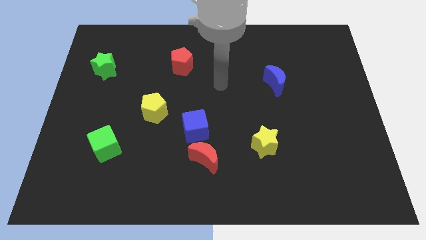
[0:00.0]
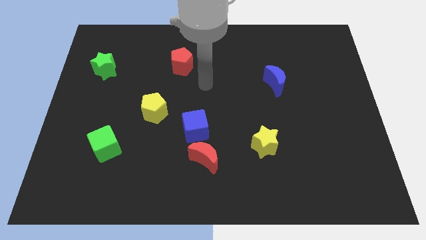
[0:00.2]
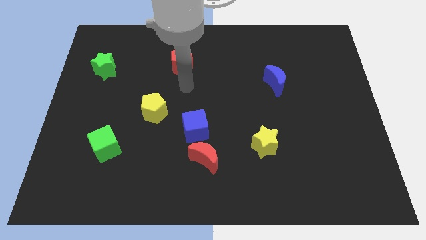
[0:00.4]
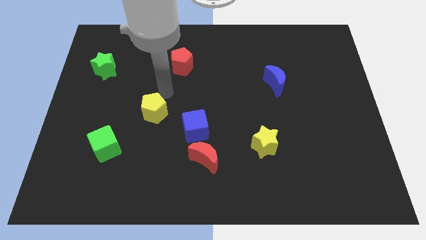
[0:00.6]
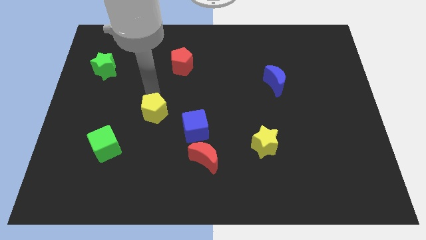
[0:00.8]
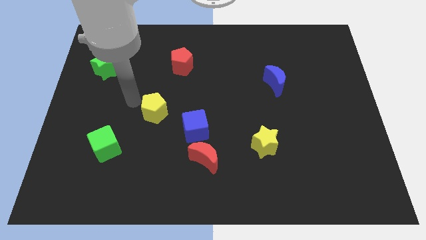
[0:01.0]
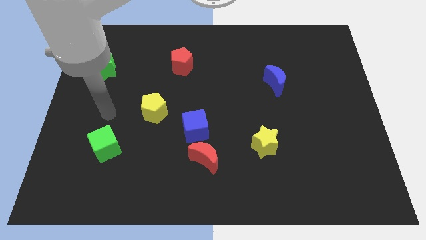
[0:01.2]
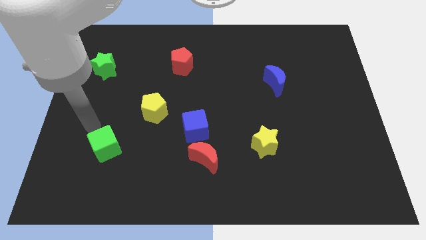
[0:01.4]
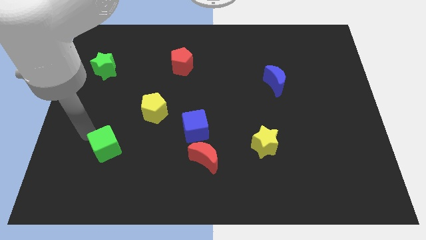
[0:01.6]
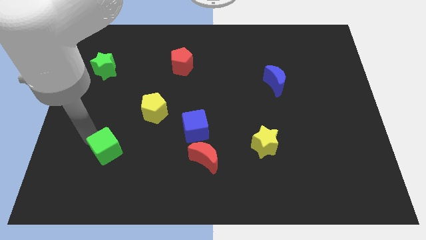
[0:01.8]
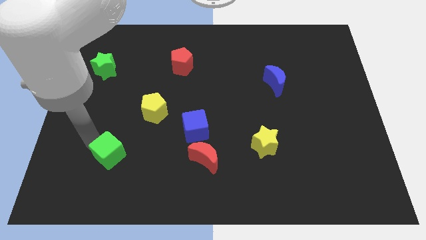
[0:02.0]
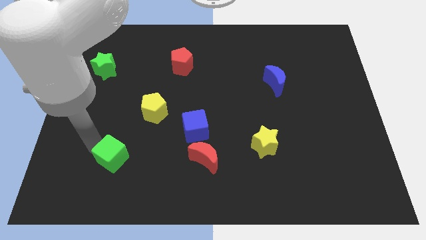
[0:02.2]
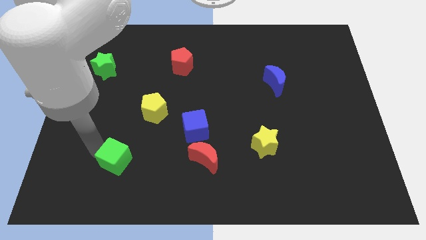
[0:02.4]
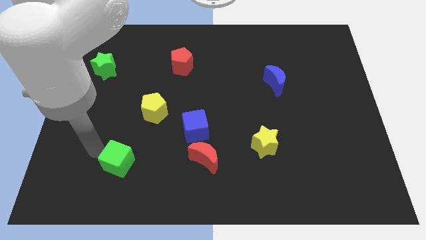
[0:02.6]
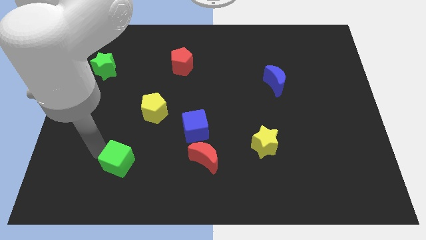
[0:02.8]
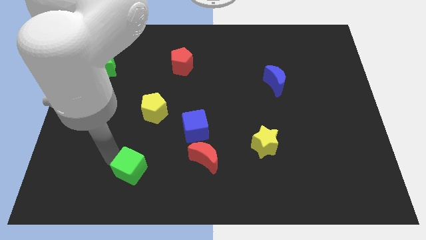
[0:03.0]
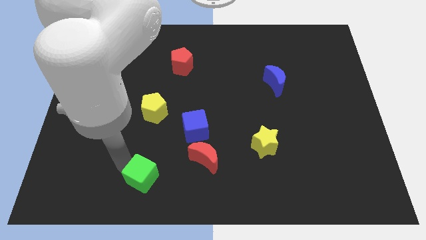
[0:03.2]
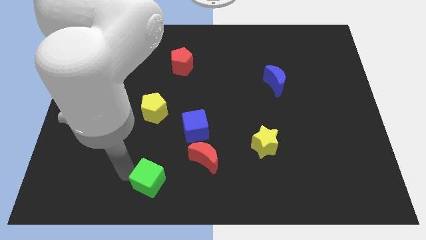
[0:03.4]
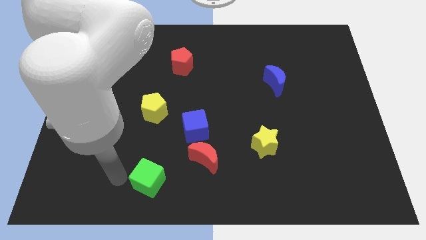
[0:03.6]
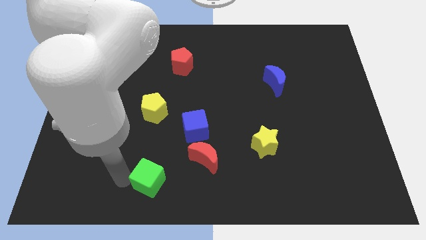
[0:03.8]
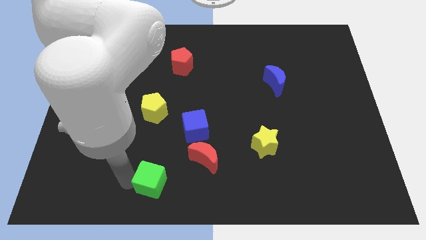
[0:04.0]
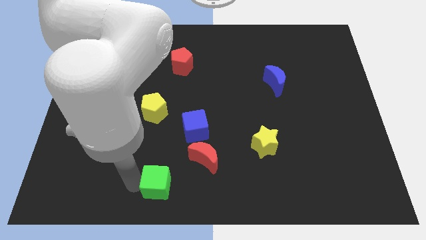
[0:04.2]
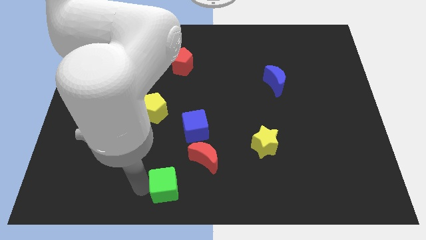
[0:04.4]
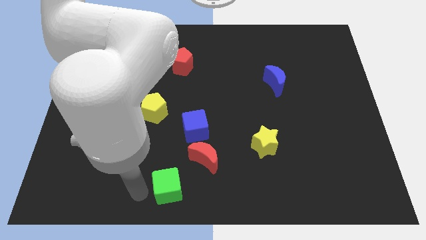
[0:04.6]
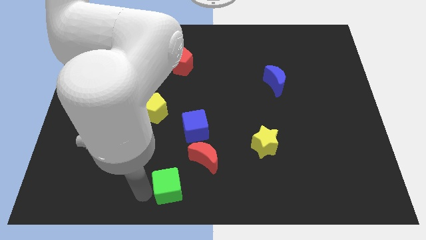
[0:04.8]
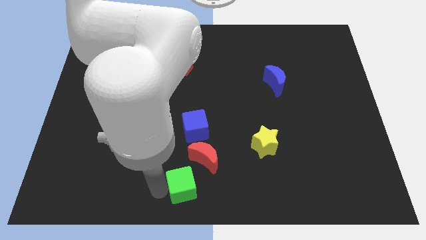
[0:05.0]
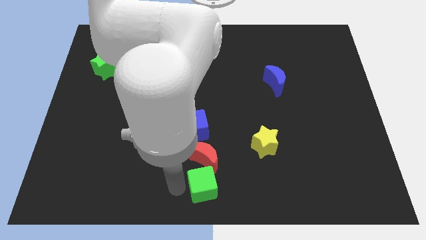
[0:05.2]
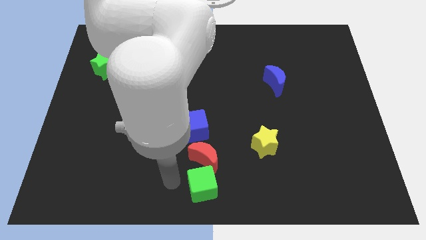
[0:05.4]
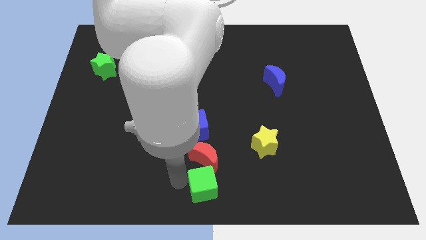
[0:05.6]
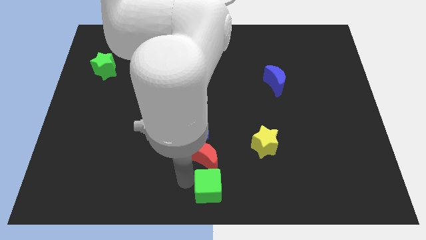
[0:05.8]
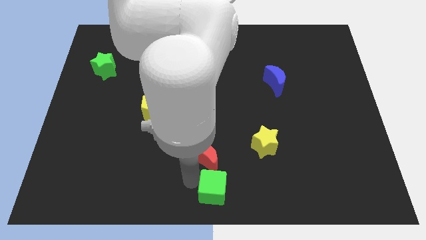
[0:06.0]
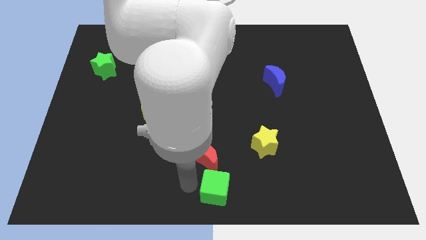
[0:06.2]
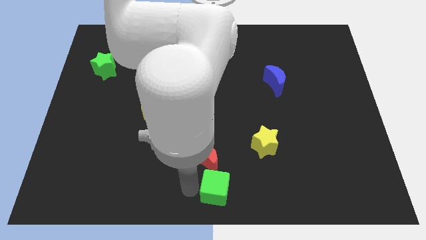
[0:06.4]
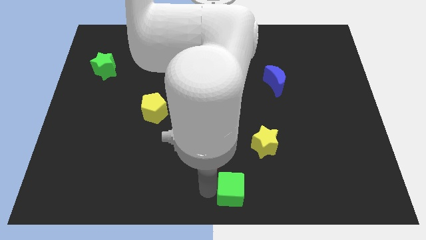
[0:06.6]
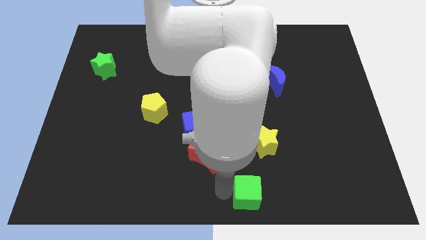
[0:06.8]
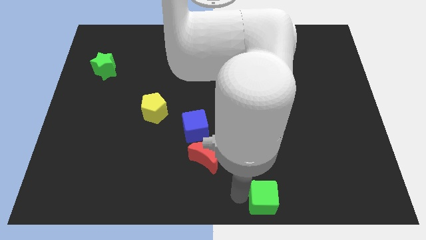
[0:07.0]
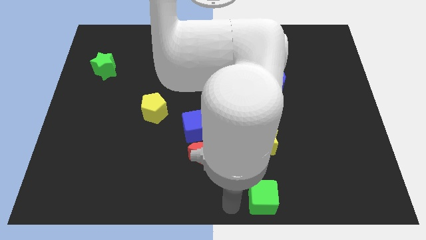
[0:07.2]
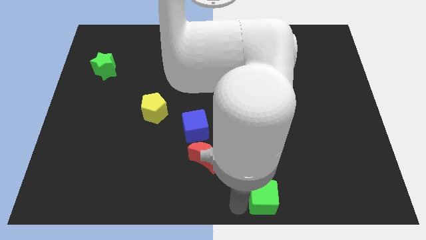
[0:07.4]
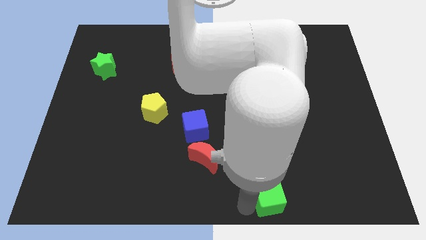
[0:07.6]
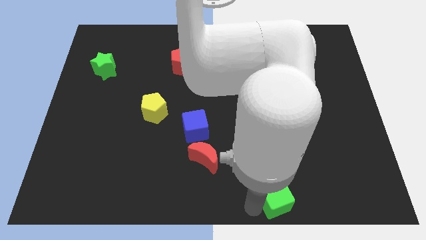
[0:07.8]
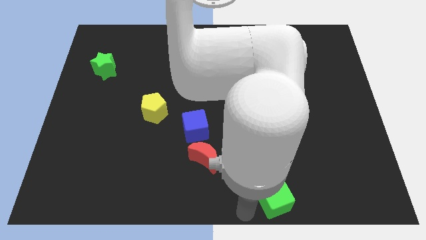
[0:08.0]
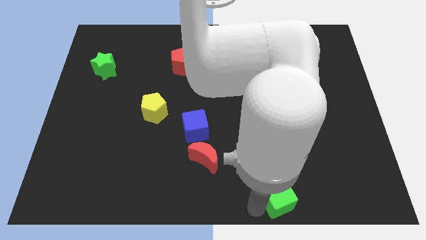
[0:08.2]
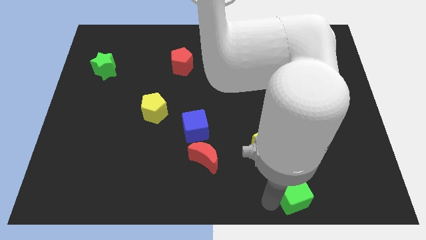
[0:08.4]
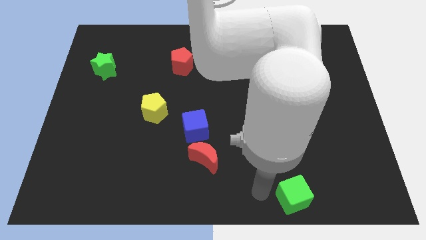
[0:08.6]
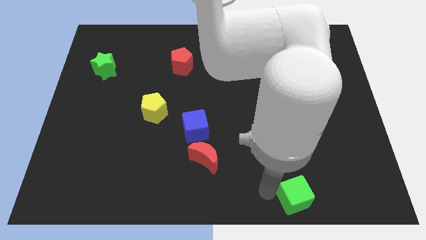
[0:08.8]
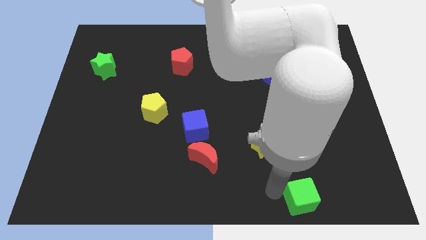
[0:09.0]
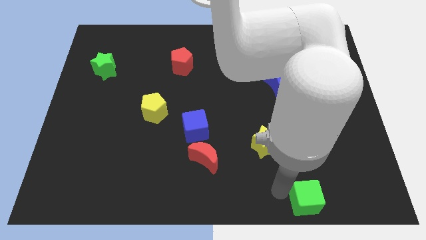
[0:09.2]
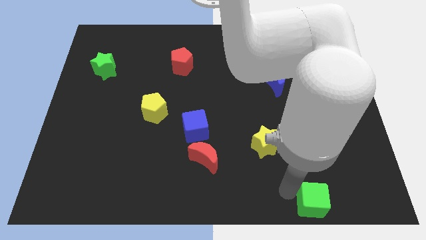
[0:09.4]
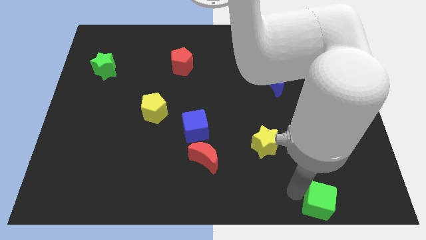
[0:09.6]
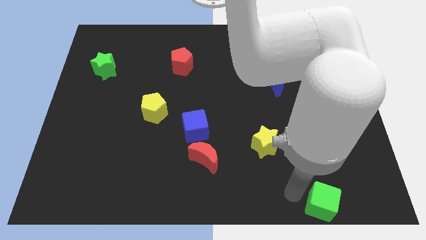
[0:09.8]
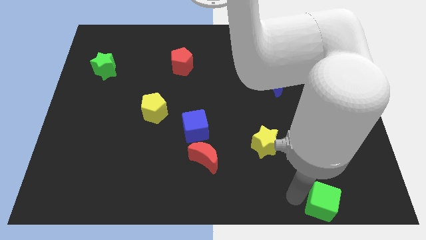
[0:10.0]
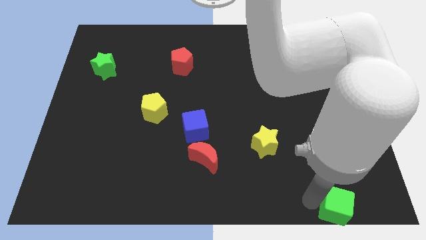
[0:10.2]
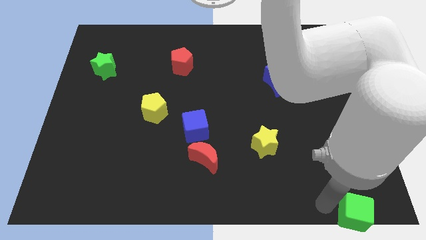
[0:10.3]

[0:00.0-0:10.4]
put the green cube to the bottom right of the board
